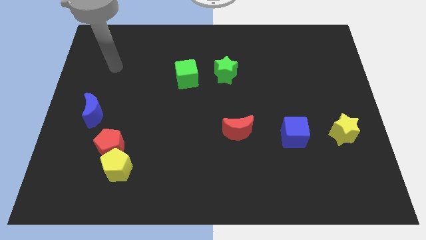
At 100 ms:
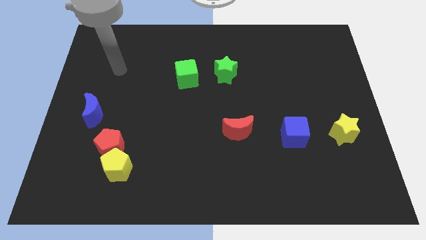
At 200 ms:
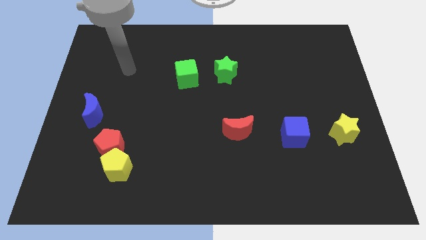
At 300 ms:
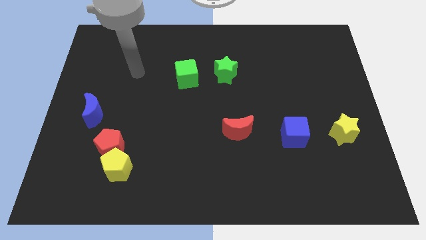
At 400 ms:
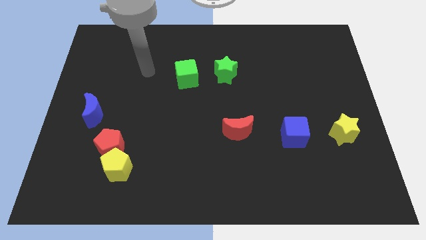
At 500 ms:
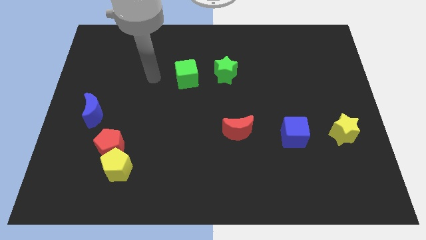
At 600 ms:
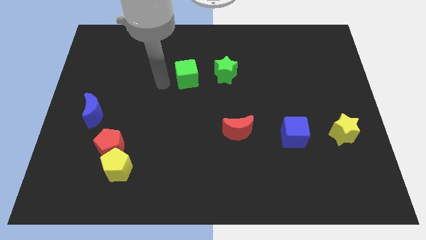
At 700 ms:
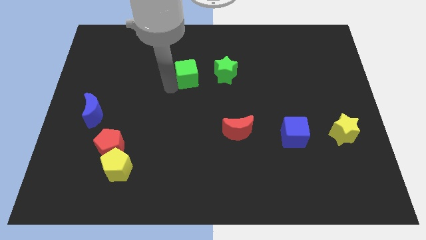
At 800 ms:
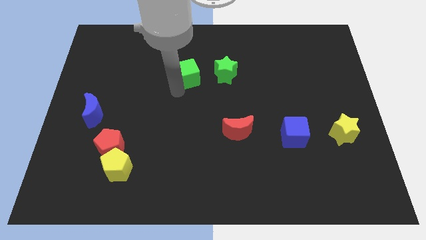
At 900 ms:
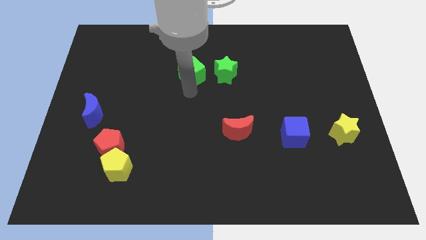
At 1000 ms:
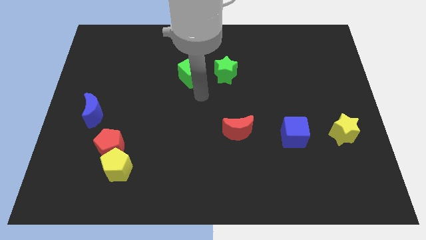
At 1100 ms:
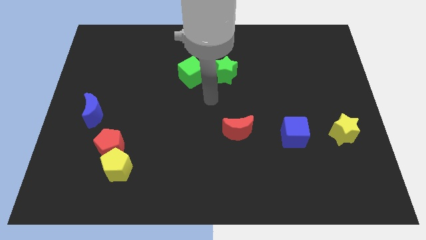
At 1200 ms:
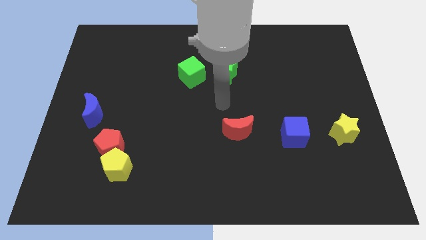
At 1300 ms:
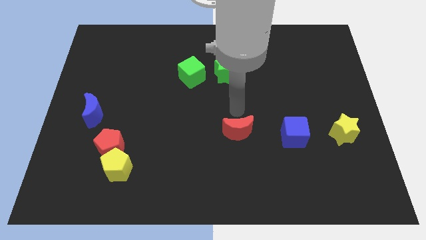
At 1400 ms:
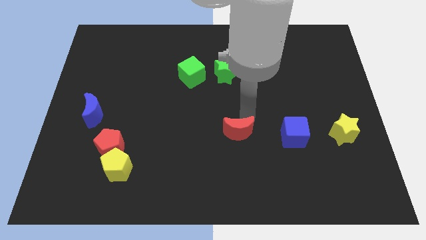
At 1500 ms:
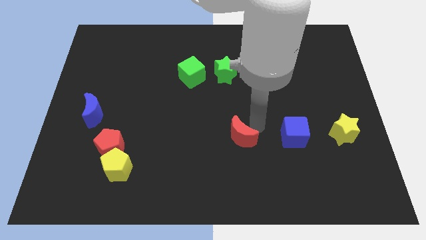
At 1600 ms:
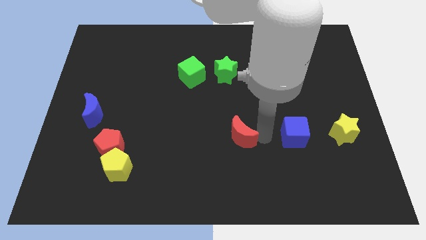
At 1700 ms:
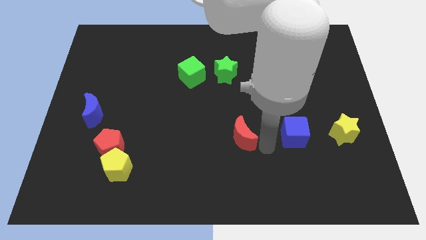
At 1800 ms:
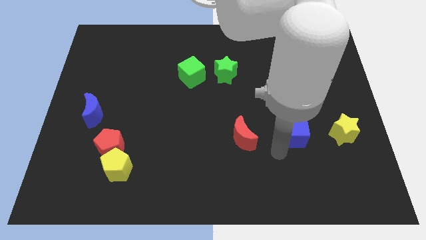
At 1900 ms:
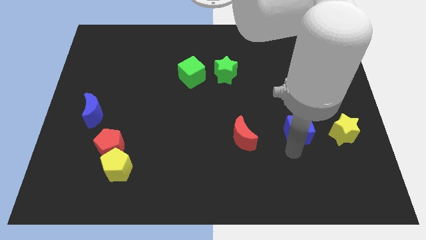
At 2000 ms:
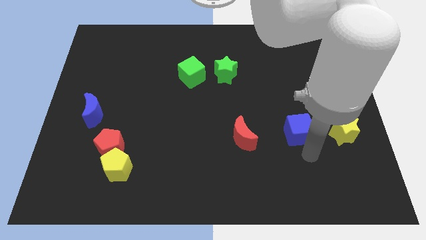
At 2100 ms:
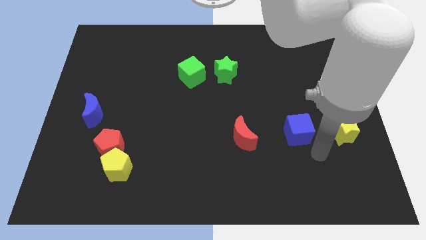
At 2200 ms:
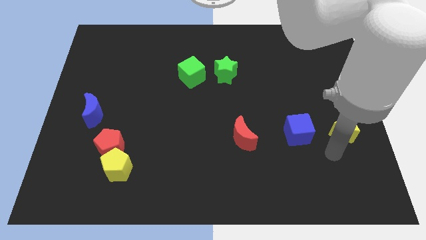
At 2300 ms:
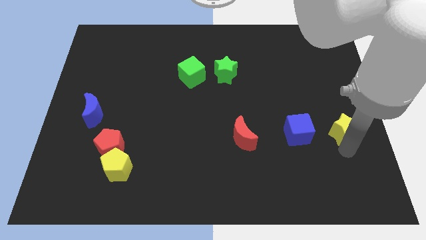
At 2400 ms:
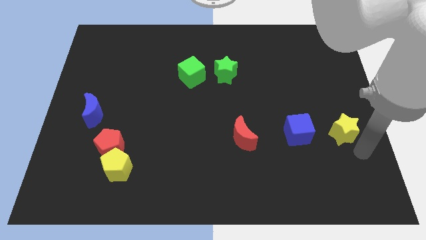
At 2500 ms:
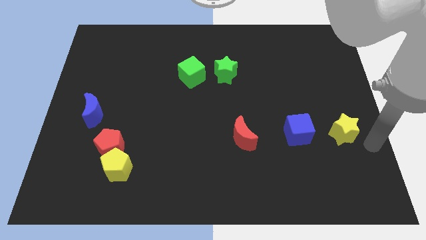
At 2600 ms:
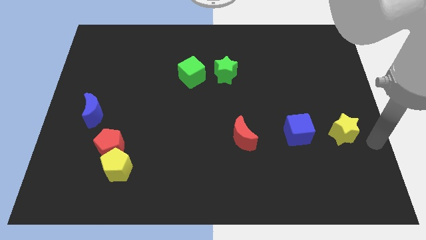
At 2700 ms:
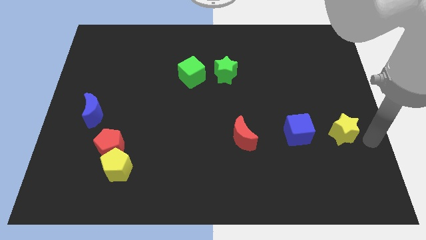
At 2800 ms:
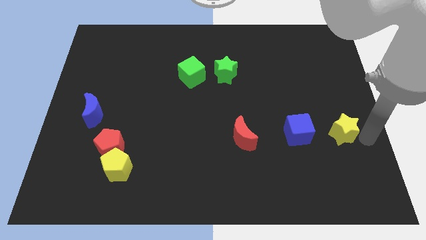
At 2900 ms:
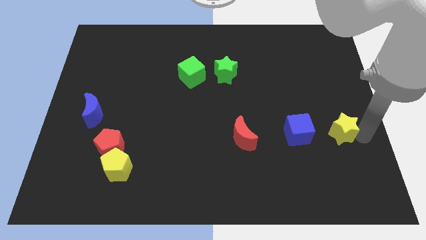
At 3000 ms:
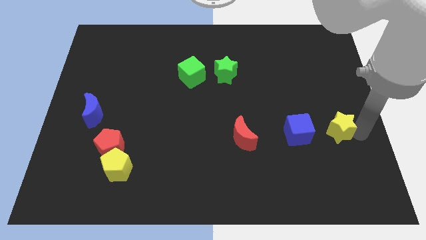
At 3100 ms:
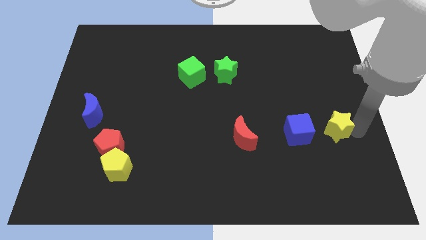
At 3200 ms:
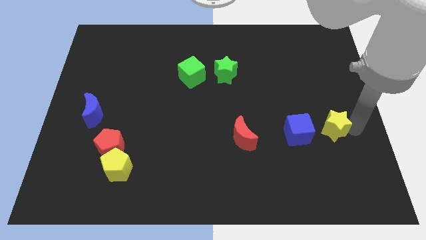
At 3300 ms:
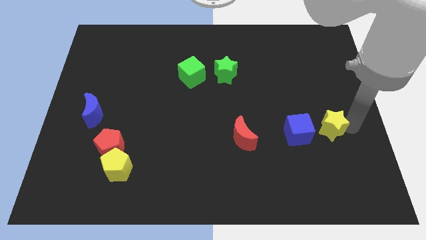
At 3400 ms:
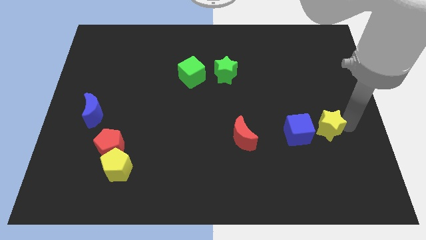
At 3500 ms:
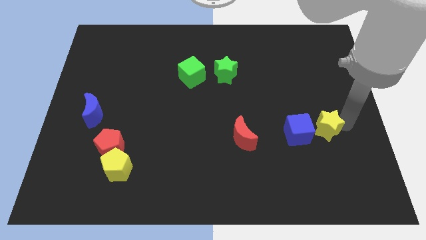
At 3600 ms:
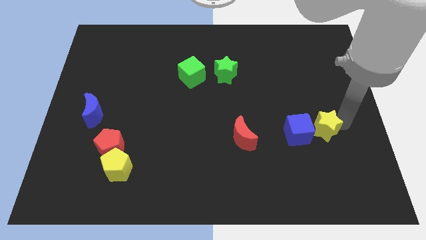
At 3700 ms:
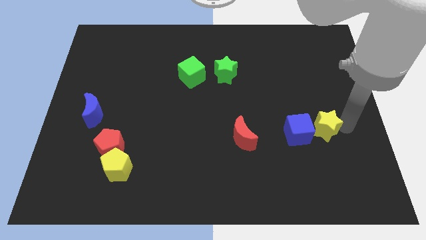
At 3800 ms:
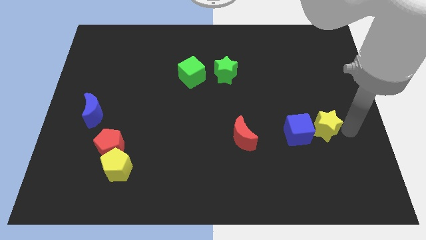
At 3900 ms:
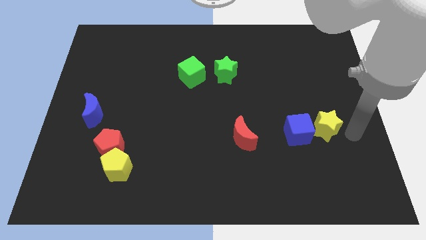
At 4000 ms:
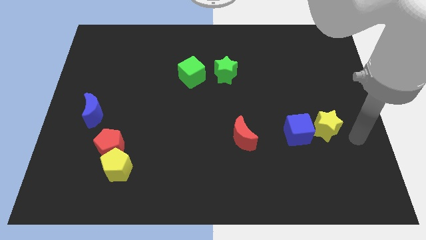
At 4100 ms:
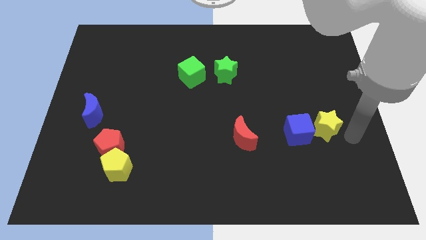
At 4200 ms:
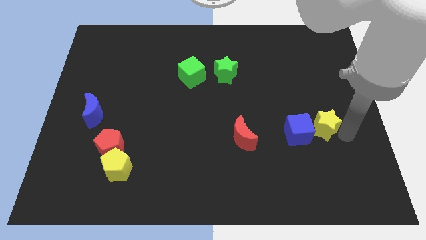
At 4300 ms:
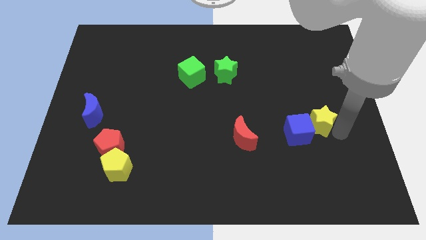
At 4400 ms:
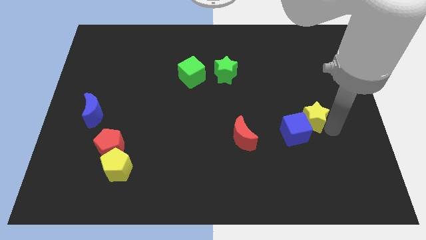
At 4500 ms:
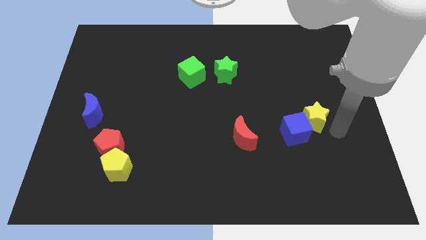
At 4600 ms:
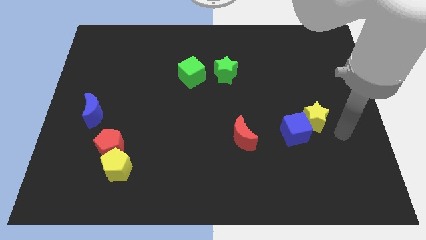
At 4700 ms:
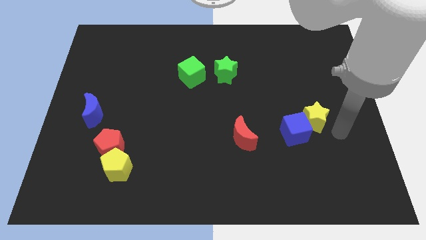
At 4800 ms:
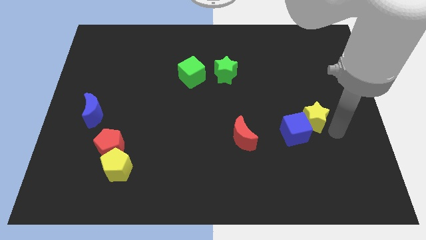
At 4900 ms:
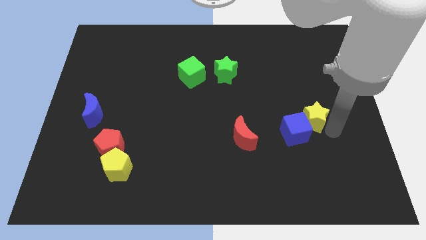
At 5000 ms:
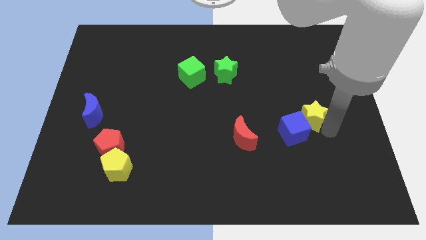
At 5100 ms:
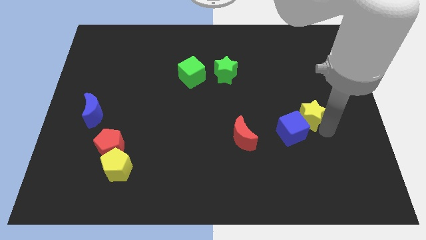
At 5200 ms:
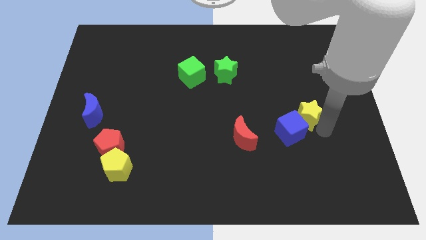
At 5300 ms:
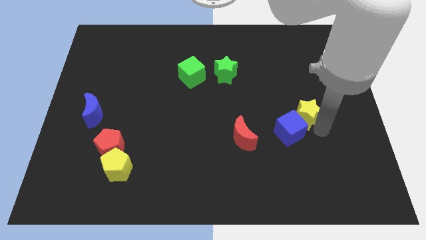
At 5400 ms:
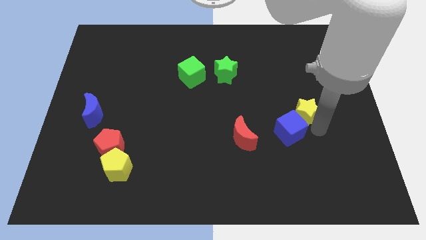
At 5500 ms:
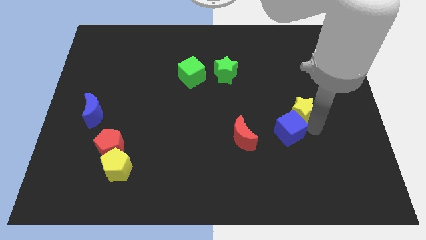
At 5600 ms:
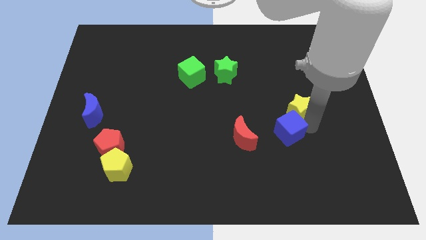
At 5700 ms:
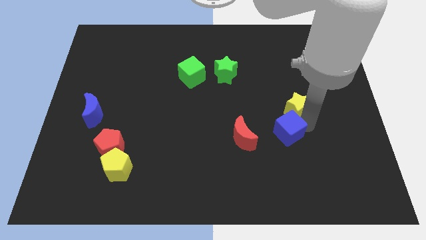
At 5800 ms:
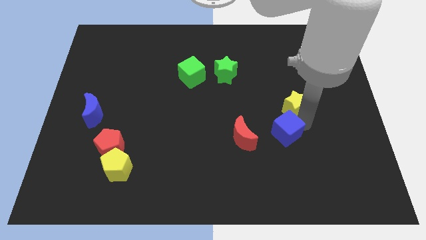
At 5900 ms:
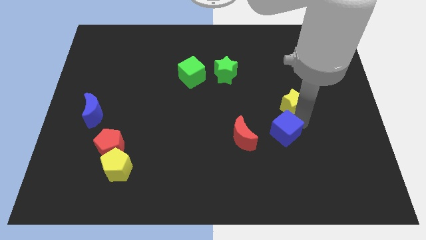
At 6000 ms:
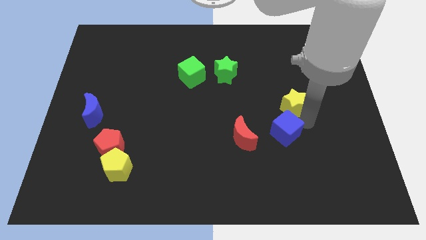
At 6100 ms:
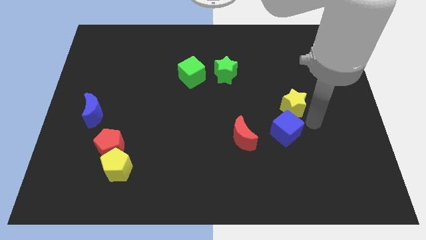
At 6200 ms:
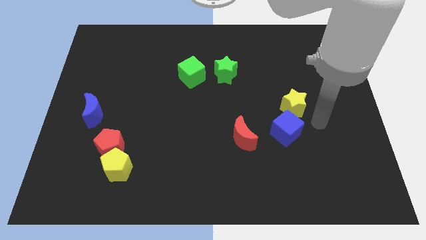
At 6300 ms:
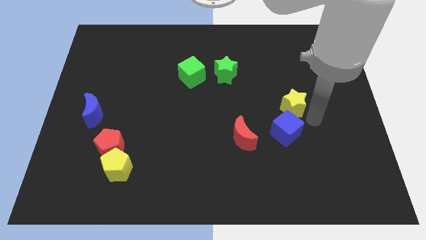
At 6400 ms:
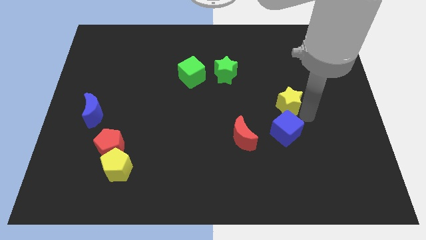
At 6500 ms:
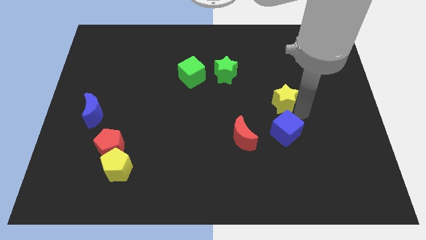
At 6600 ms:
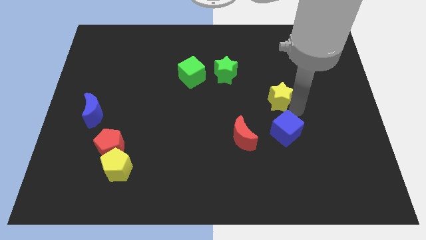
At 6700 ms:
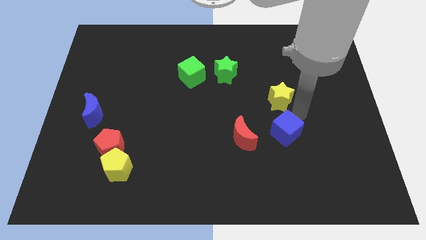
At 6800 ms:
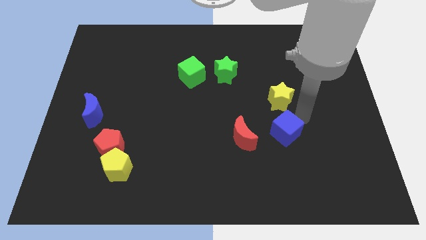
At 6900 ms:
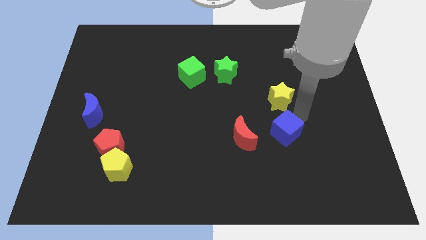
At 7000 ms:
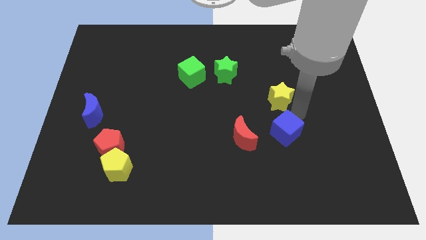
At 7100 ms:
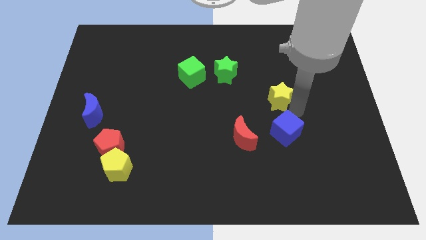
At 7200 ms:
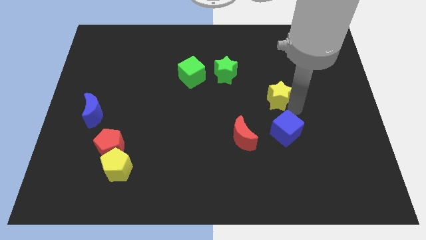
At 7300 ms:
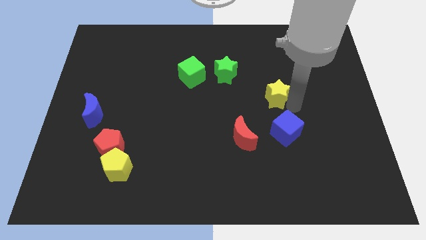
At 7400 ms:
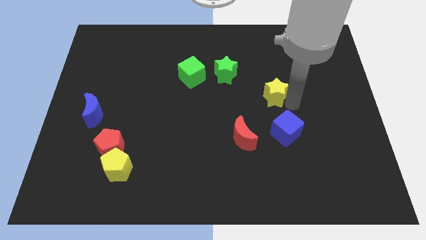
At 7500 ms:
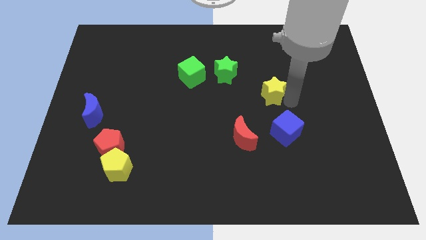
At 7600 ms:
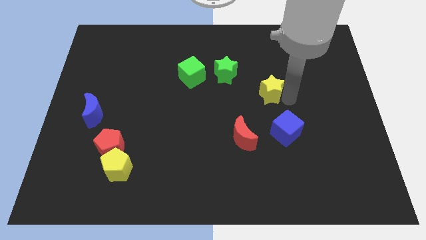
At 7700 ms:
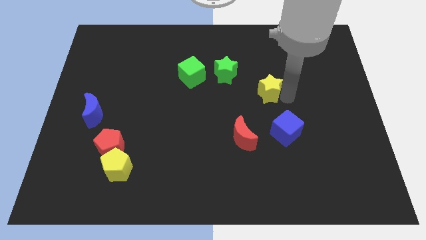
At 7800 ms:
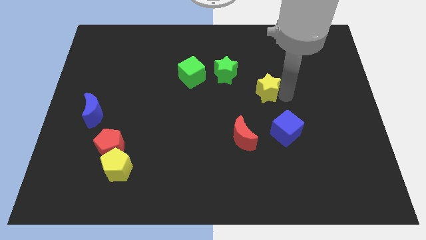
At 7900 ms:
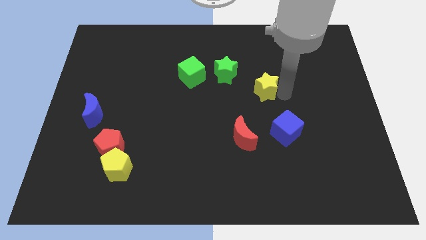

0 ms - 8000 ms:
move the yellow star up and then left
